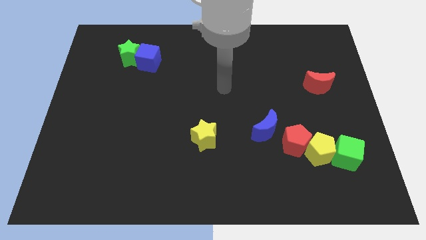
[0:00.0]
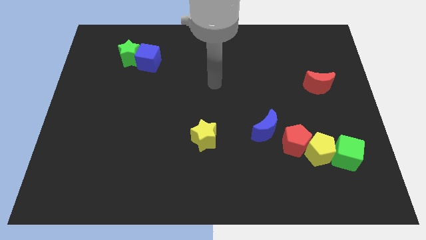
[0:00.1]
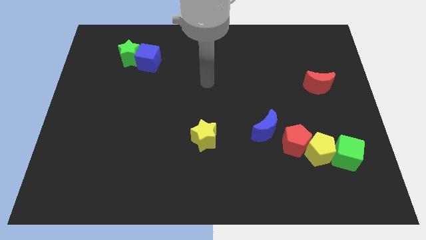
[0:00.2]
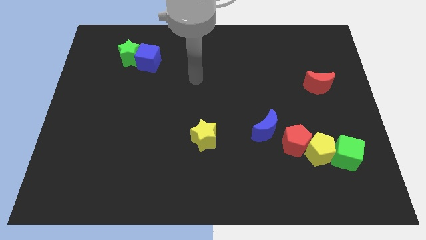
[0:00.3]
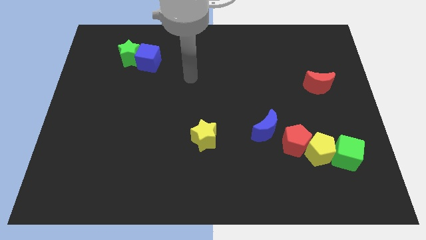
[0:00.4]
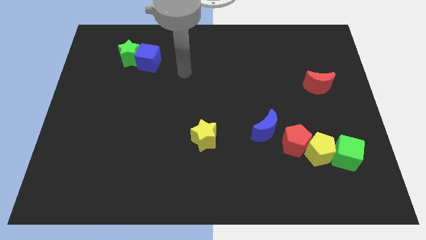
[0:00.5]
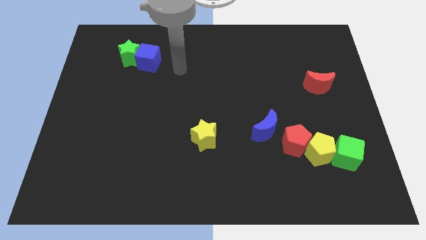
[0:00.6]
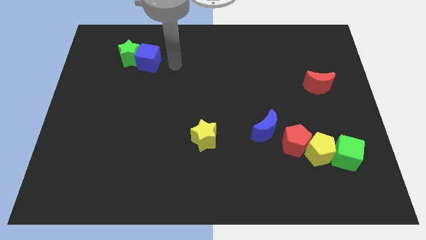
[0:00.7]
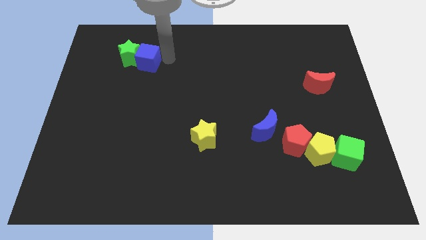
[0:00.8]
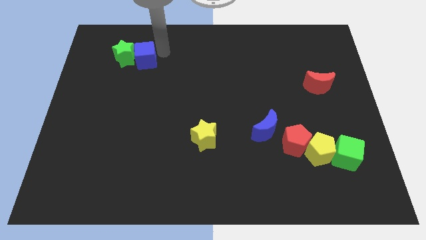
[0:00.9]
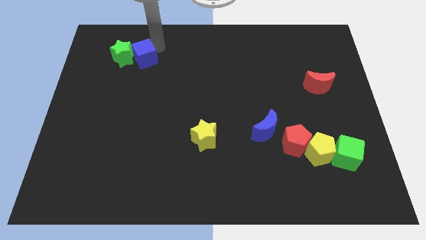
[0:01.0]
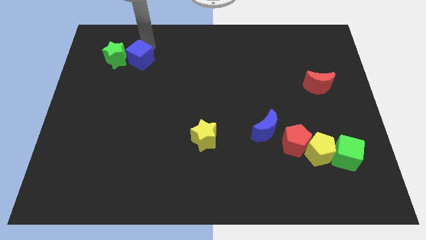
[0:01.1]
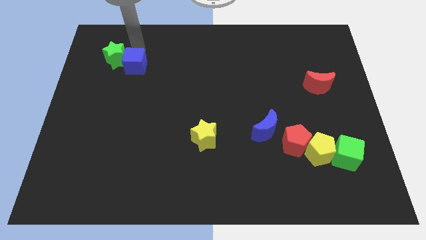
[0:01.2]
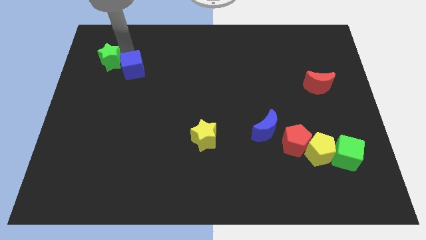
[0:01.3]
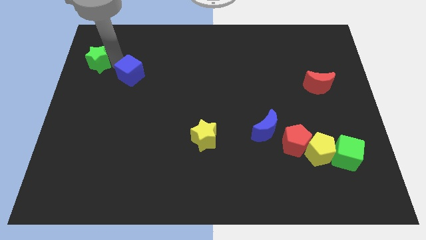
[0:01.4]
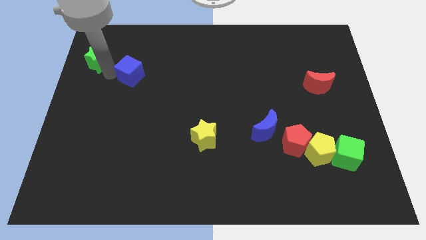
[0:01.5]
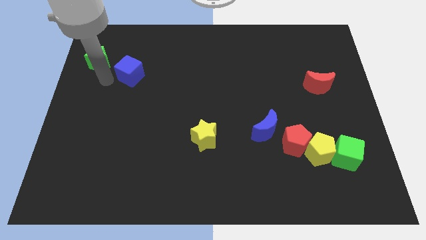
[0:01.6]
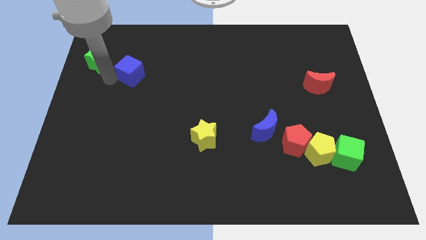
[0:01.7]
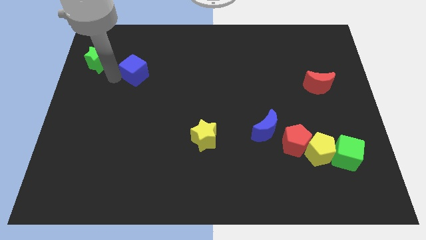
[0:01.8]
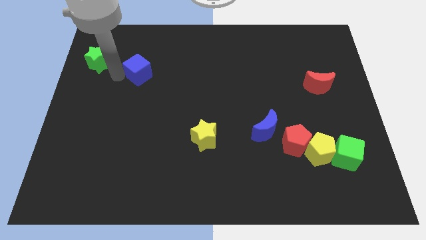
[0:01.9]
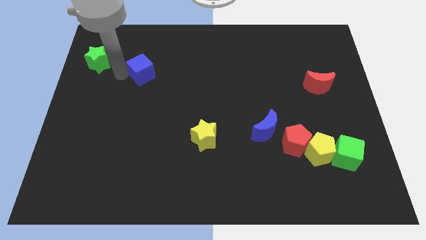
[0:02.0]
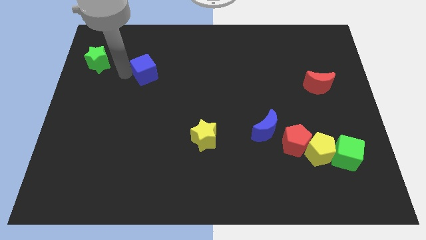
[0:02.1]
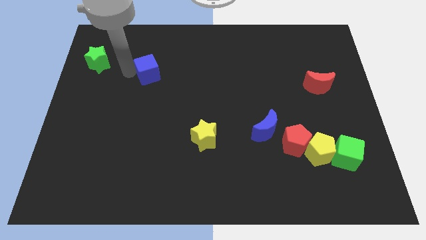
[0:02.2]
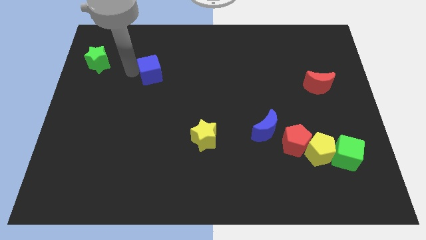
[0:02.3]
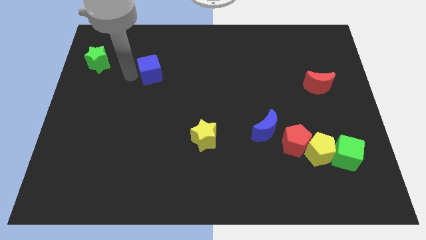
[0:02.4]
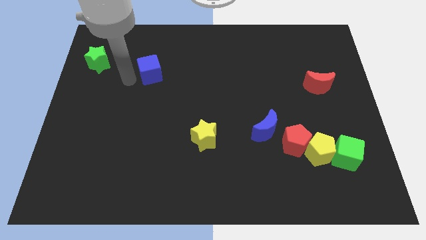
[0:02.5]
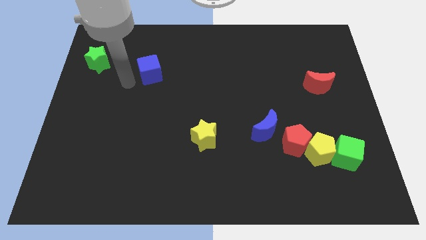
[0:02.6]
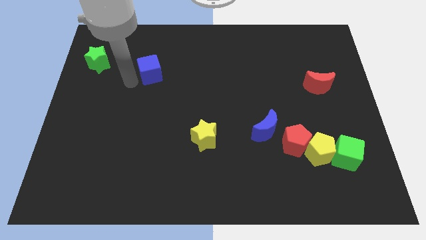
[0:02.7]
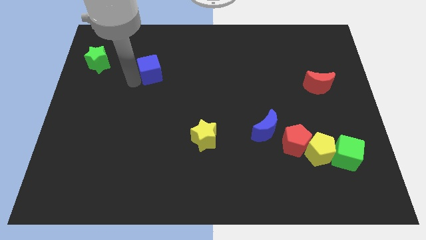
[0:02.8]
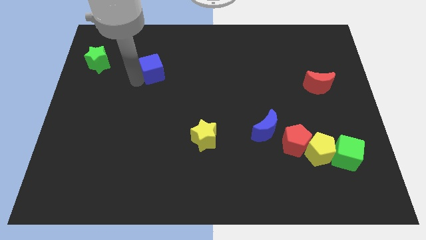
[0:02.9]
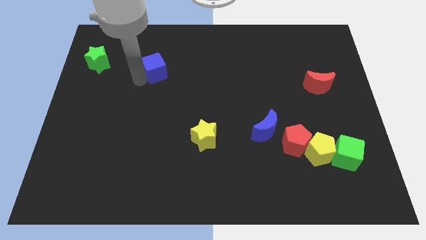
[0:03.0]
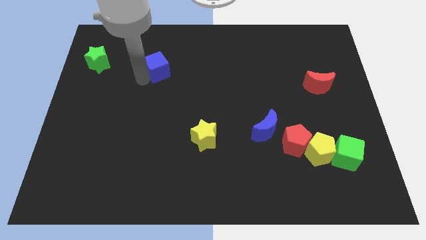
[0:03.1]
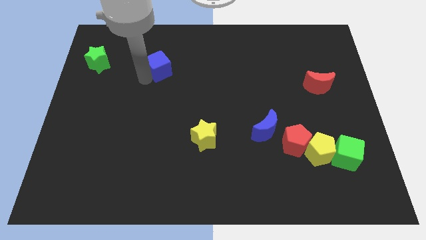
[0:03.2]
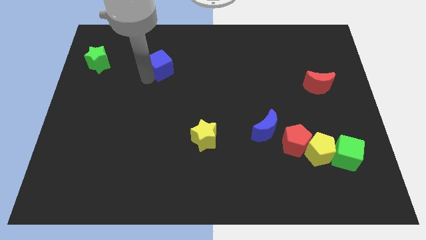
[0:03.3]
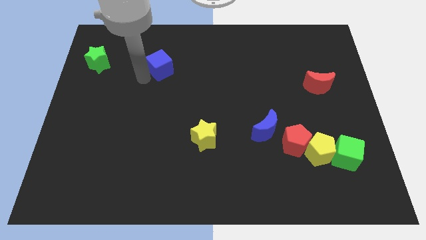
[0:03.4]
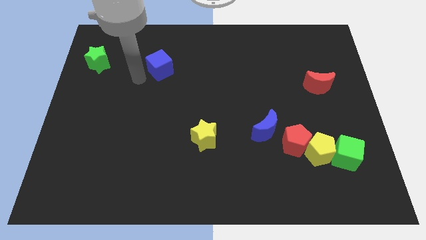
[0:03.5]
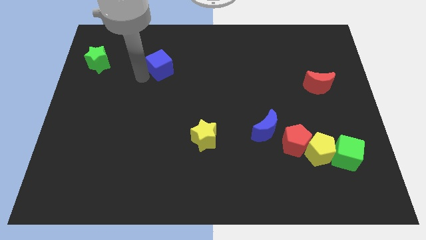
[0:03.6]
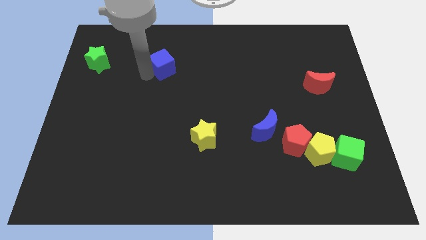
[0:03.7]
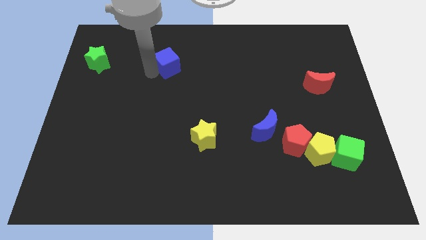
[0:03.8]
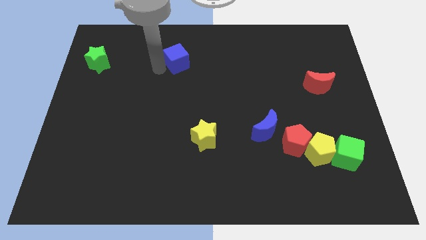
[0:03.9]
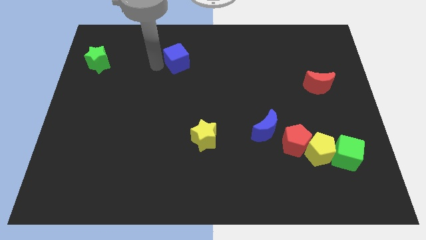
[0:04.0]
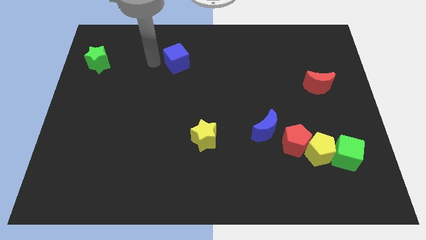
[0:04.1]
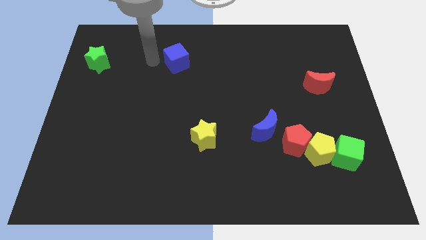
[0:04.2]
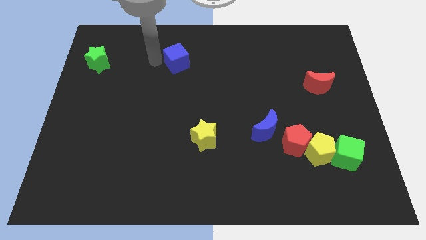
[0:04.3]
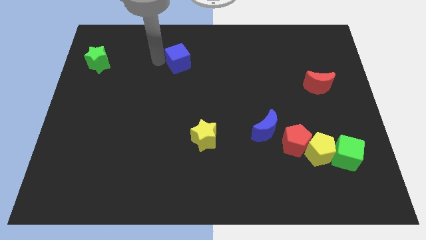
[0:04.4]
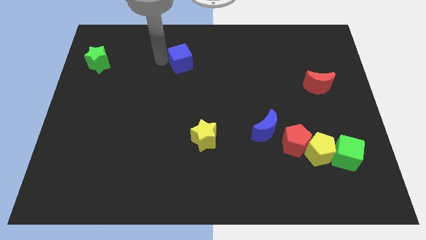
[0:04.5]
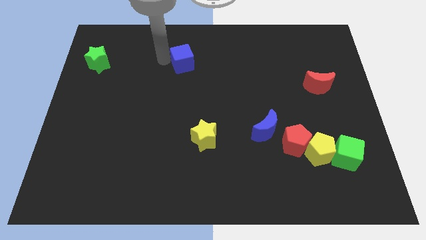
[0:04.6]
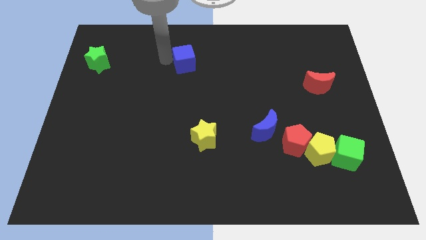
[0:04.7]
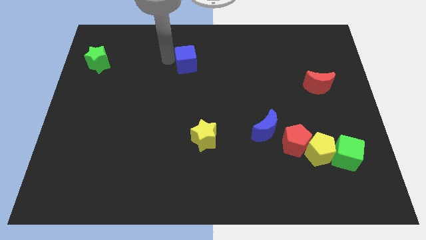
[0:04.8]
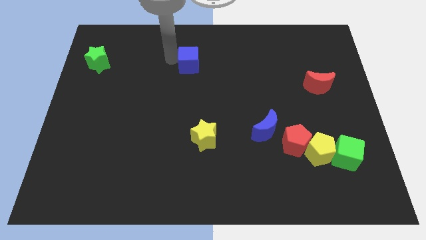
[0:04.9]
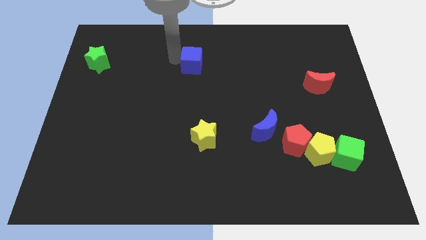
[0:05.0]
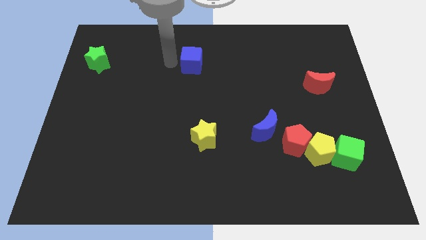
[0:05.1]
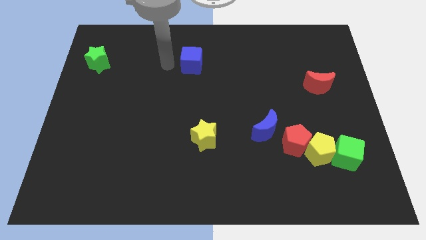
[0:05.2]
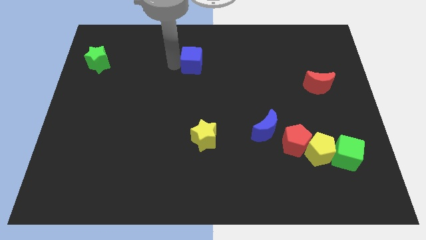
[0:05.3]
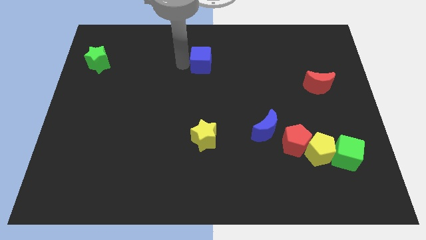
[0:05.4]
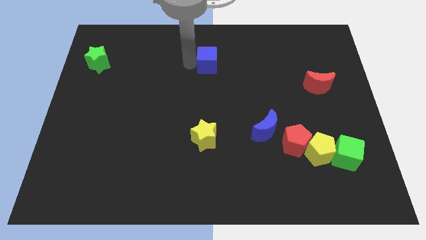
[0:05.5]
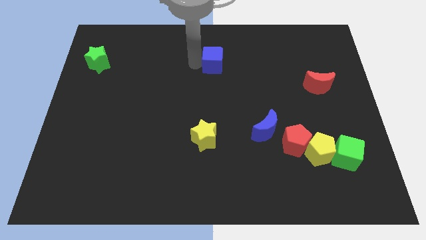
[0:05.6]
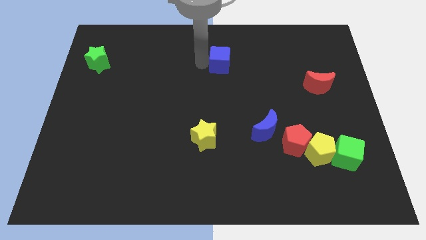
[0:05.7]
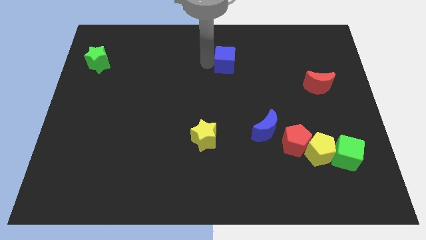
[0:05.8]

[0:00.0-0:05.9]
push the blue cube right

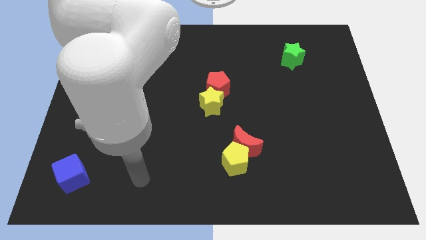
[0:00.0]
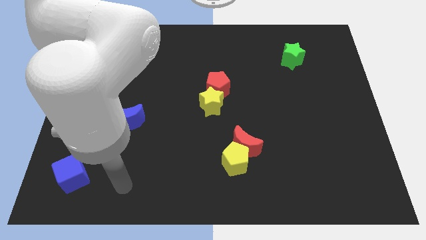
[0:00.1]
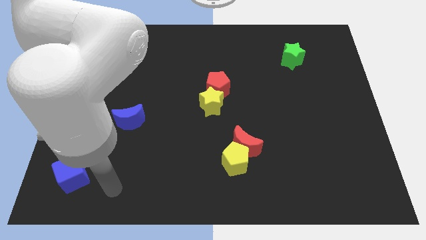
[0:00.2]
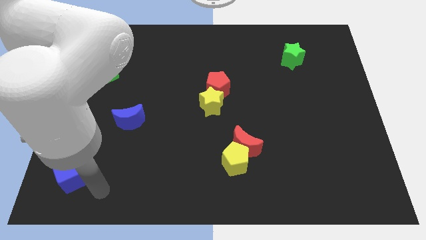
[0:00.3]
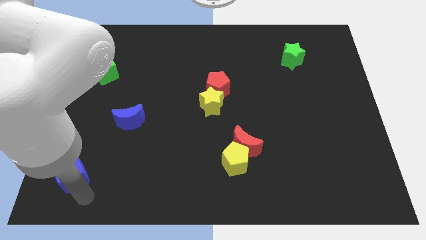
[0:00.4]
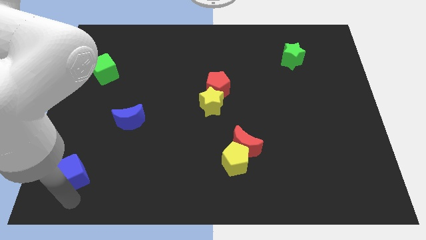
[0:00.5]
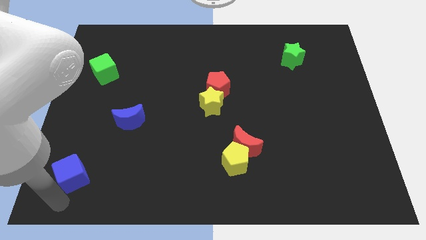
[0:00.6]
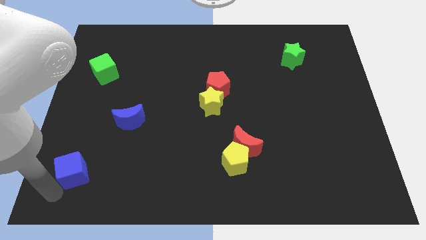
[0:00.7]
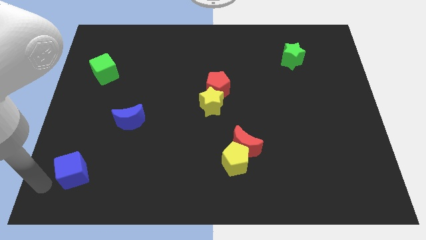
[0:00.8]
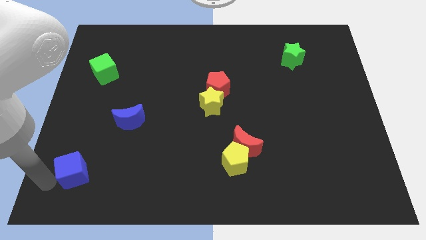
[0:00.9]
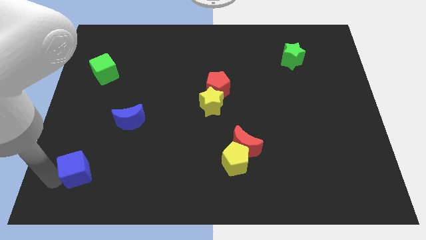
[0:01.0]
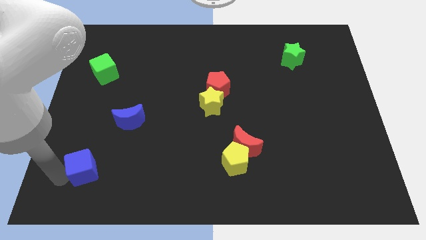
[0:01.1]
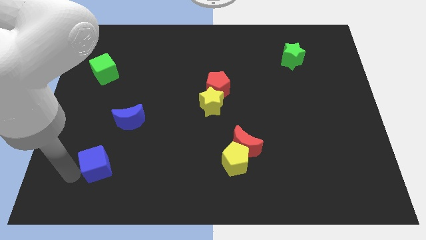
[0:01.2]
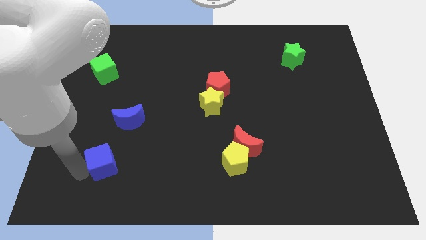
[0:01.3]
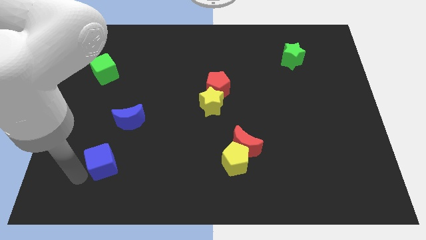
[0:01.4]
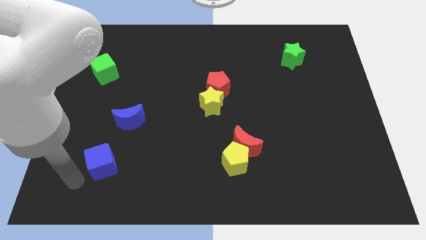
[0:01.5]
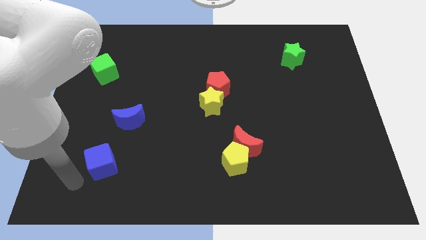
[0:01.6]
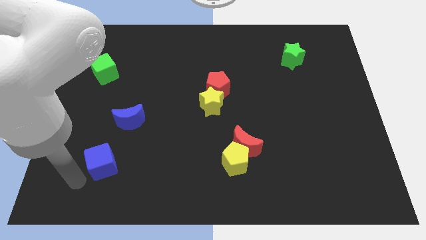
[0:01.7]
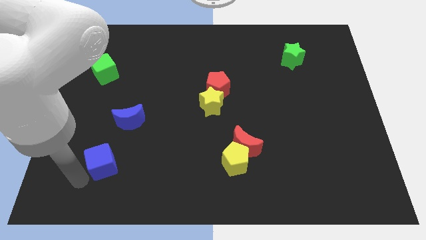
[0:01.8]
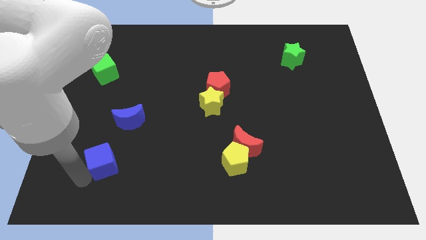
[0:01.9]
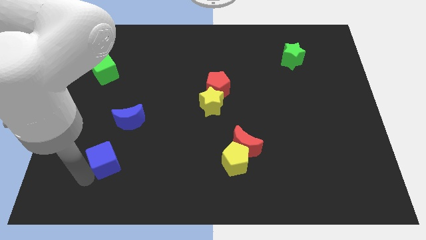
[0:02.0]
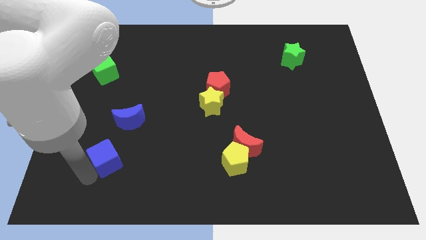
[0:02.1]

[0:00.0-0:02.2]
move the blue cube diagonally upwards and to the right somewhat
